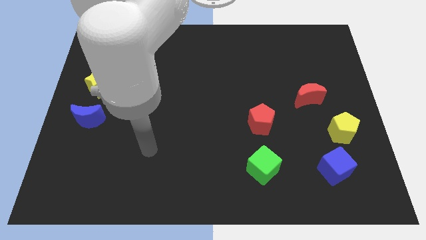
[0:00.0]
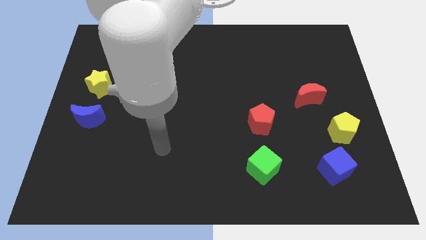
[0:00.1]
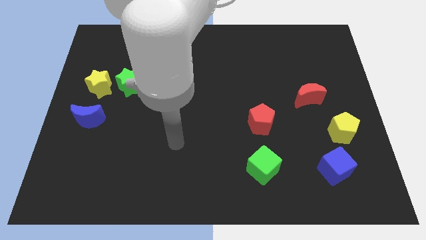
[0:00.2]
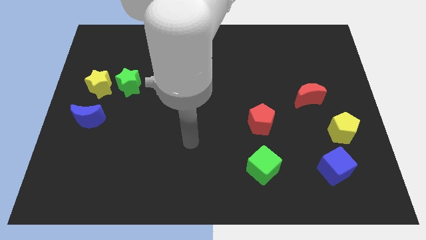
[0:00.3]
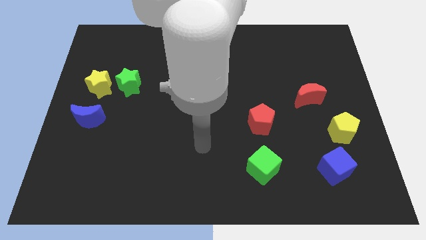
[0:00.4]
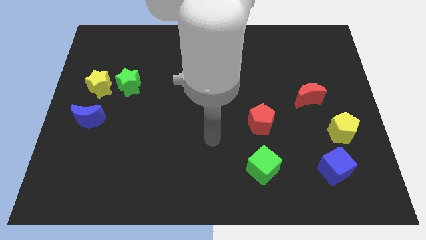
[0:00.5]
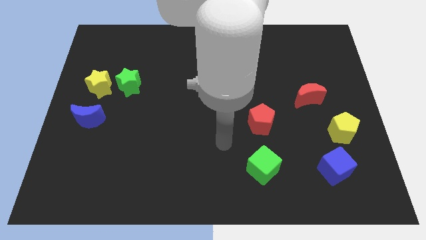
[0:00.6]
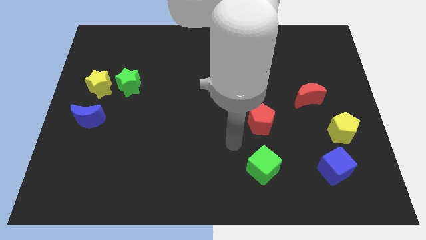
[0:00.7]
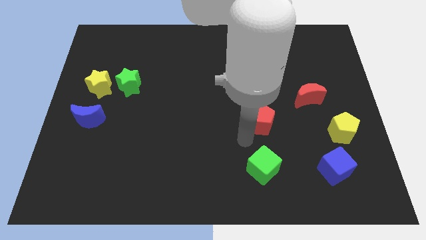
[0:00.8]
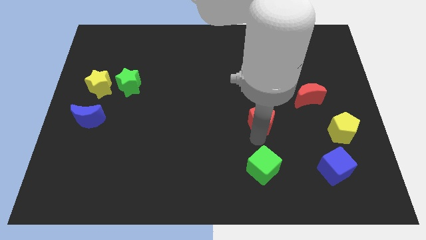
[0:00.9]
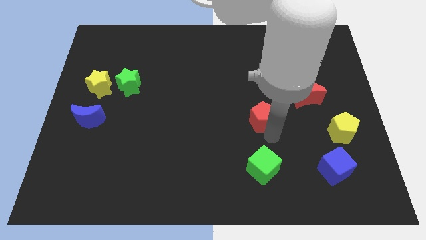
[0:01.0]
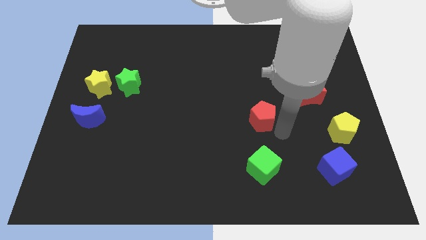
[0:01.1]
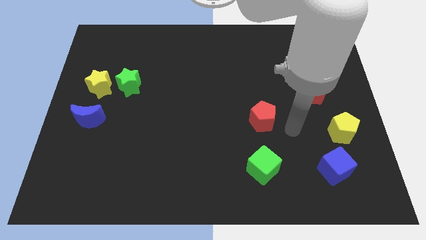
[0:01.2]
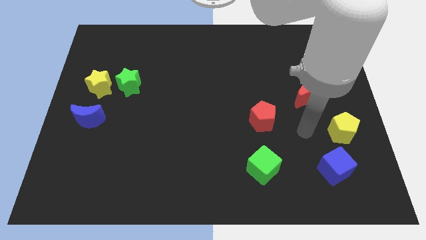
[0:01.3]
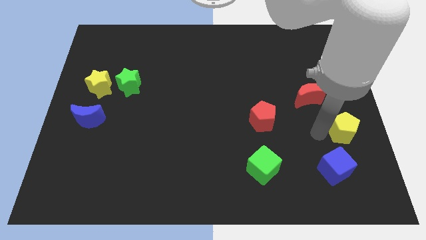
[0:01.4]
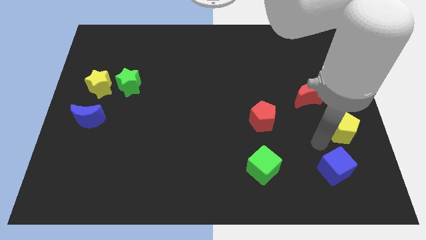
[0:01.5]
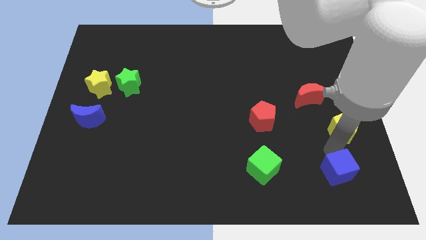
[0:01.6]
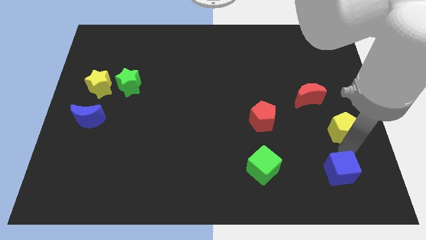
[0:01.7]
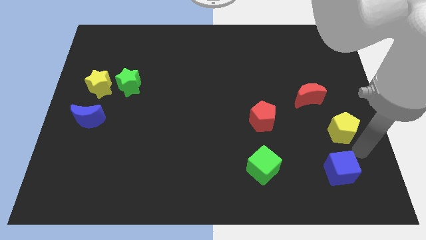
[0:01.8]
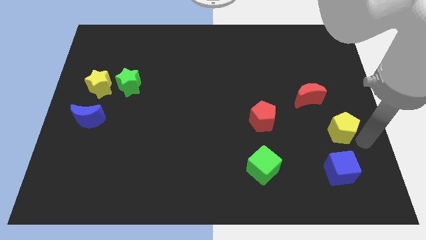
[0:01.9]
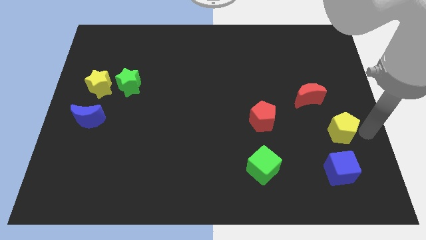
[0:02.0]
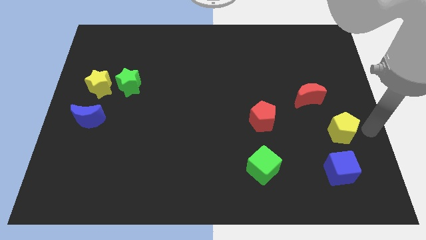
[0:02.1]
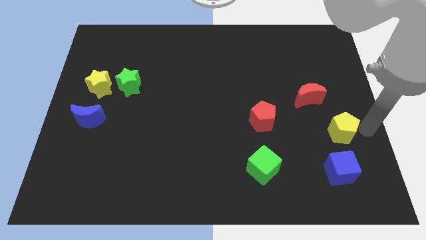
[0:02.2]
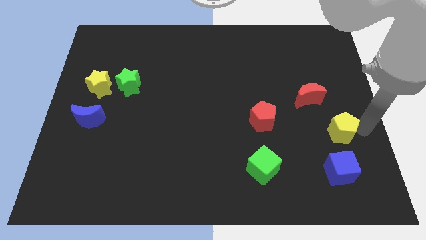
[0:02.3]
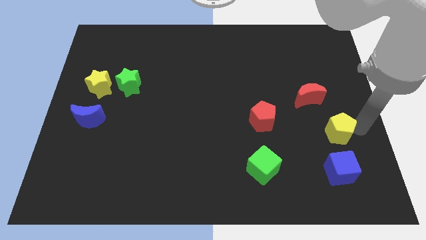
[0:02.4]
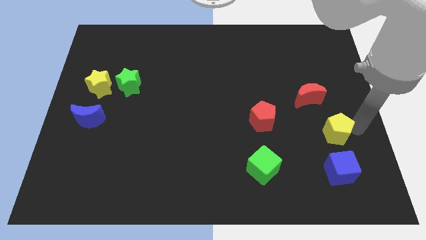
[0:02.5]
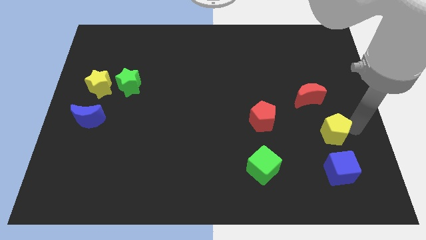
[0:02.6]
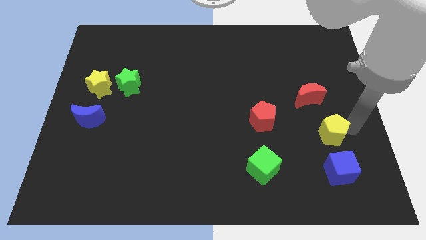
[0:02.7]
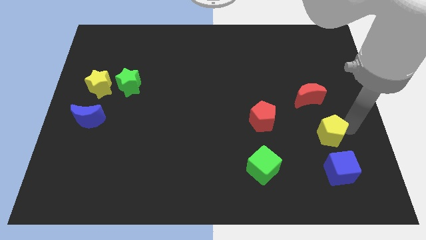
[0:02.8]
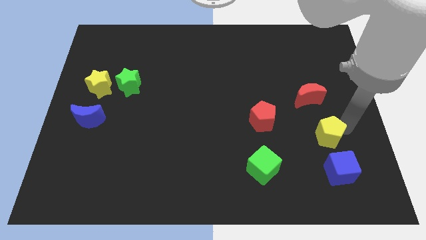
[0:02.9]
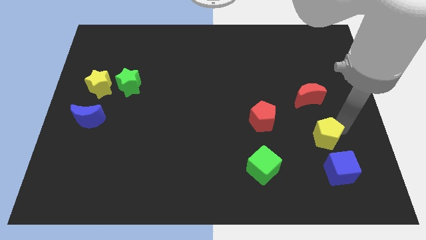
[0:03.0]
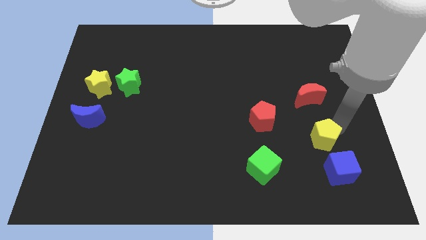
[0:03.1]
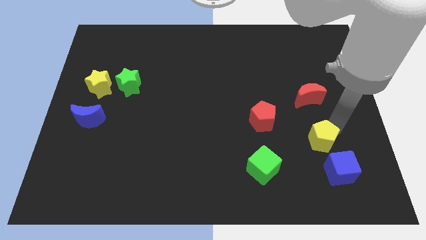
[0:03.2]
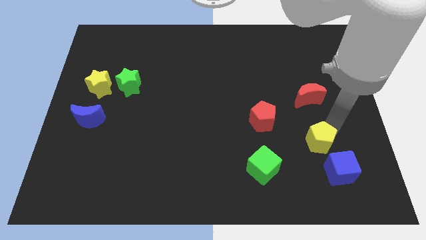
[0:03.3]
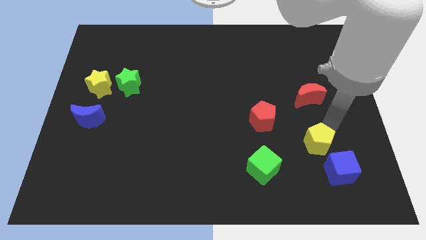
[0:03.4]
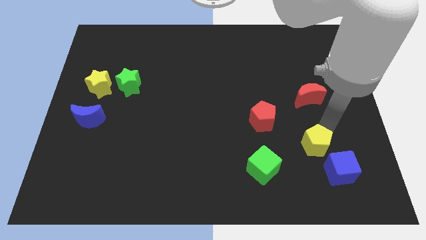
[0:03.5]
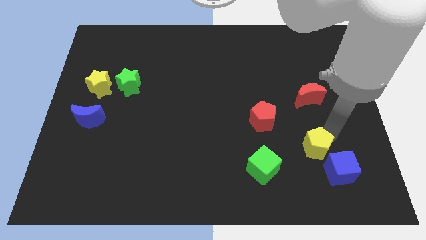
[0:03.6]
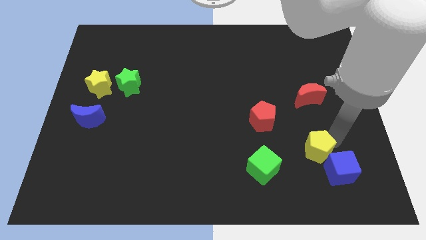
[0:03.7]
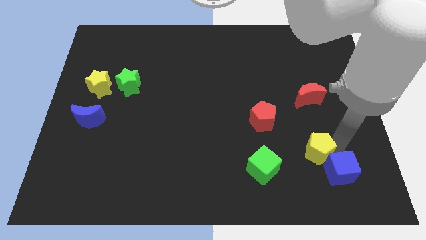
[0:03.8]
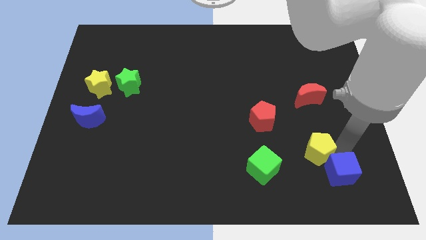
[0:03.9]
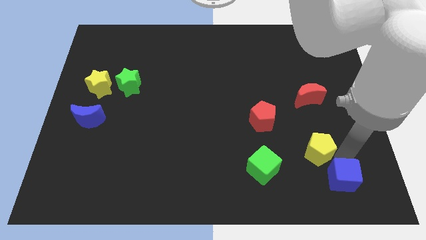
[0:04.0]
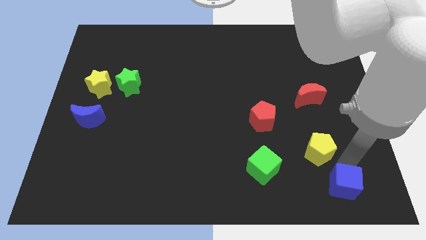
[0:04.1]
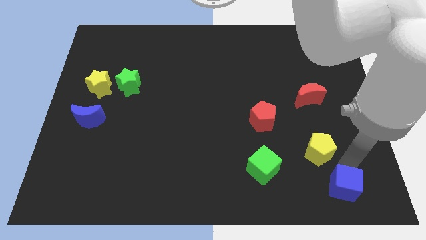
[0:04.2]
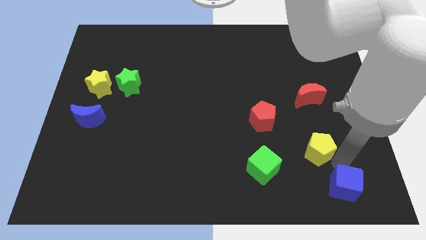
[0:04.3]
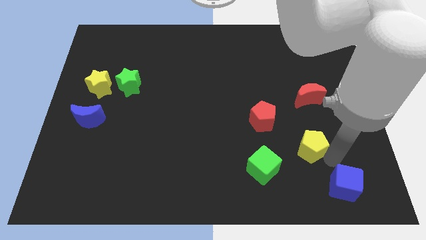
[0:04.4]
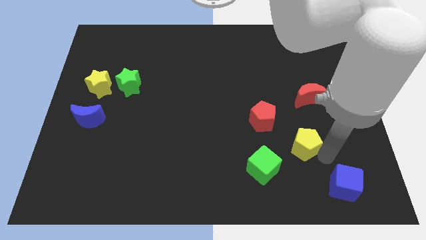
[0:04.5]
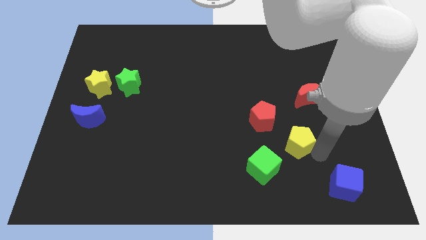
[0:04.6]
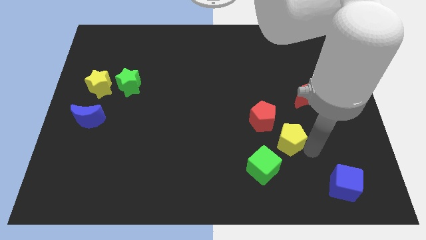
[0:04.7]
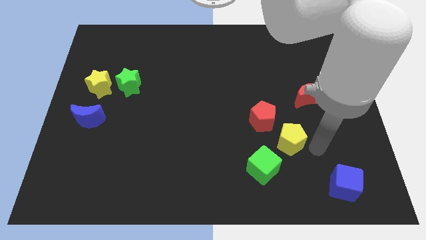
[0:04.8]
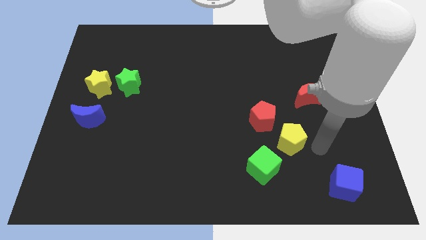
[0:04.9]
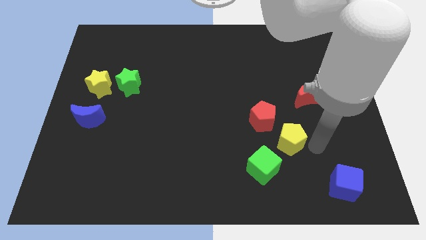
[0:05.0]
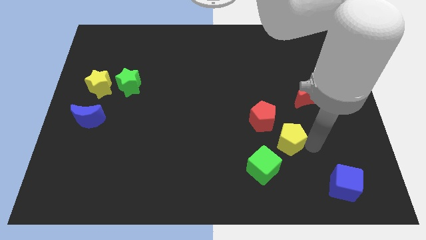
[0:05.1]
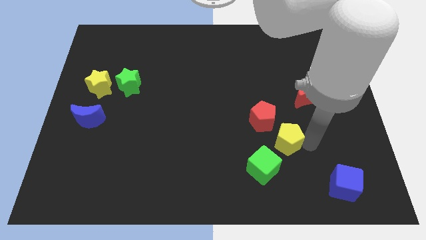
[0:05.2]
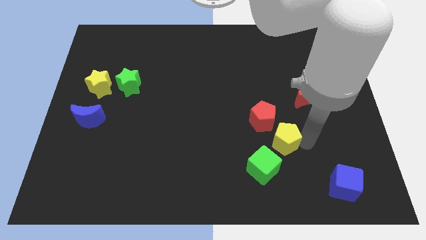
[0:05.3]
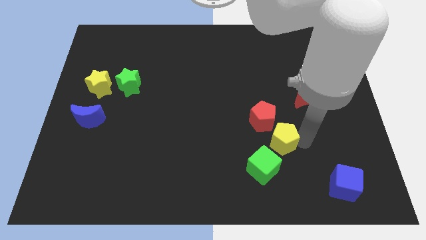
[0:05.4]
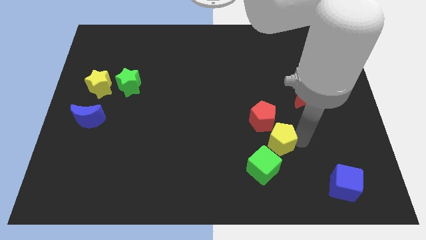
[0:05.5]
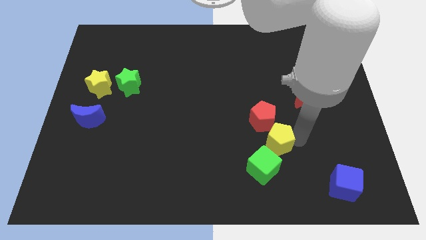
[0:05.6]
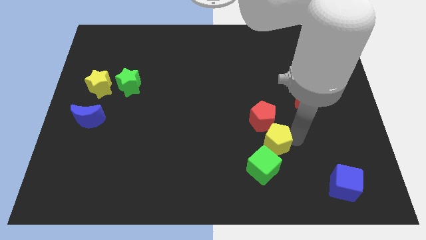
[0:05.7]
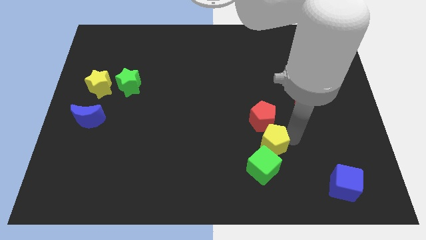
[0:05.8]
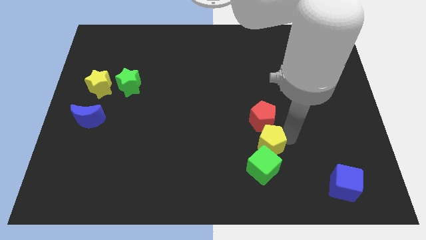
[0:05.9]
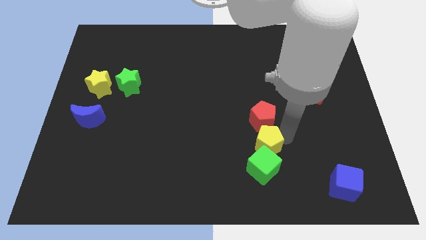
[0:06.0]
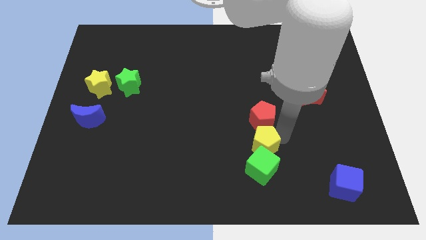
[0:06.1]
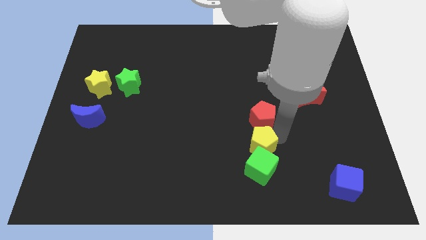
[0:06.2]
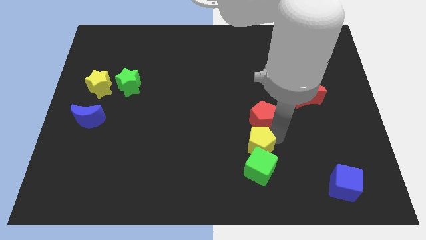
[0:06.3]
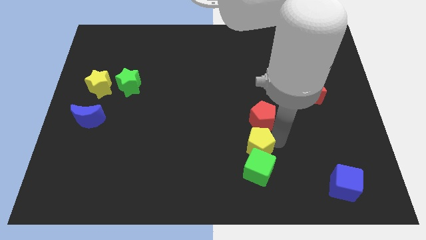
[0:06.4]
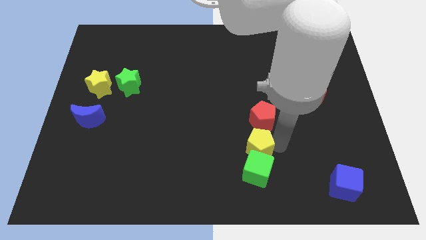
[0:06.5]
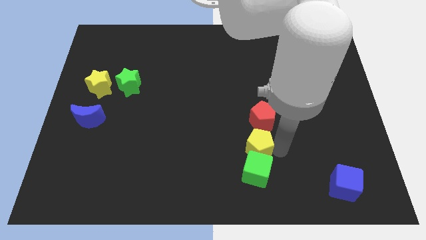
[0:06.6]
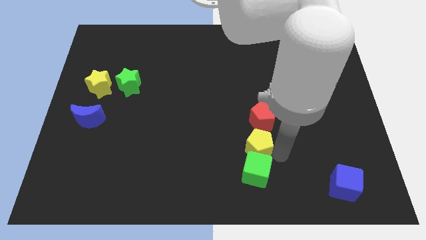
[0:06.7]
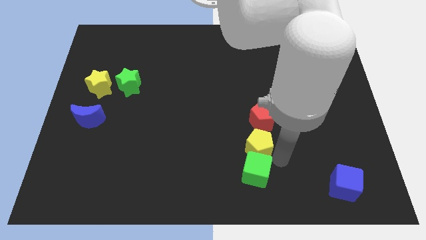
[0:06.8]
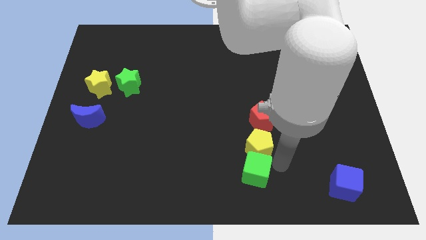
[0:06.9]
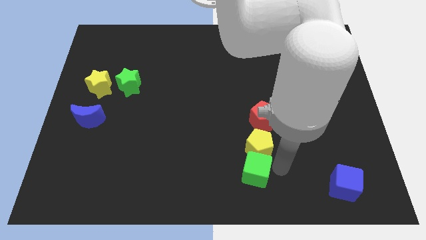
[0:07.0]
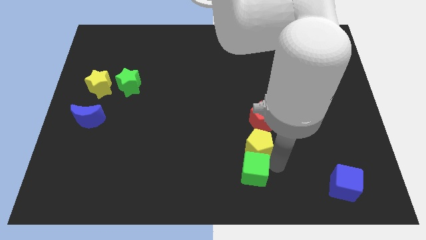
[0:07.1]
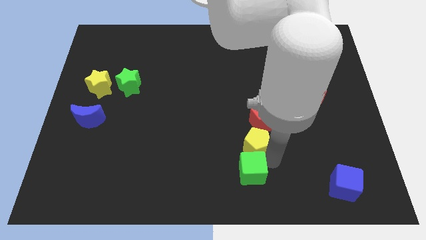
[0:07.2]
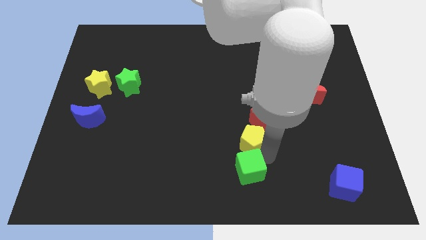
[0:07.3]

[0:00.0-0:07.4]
push the yellow pentagon left

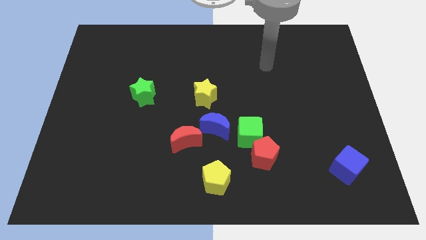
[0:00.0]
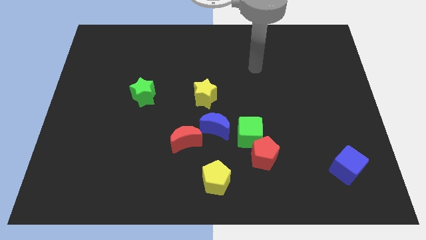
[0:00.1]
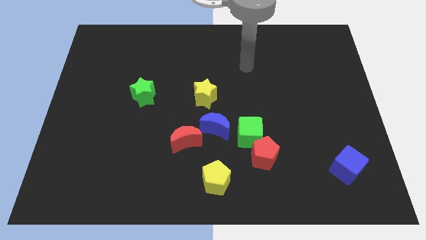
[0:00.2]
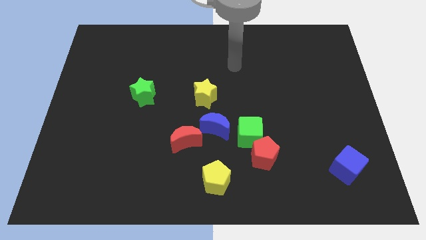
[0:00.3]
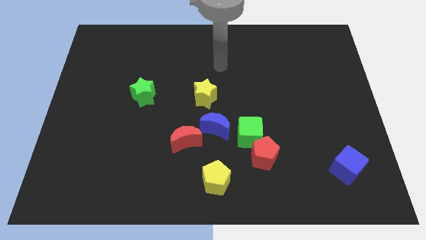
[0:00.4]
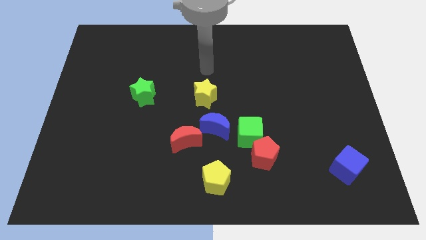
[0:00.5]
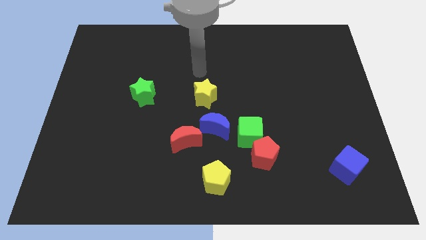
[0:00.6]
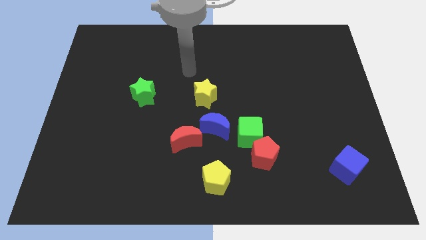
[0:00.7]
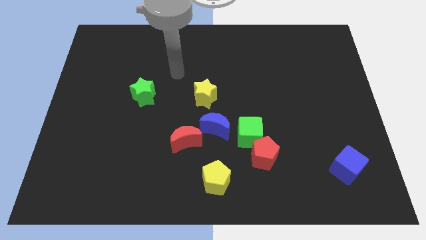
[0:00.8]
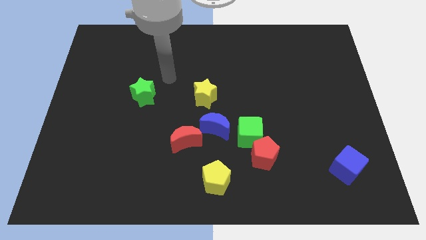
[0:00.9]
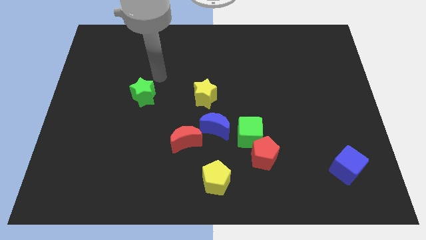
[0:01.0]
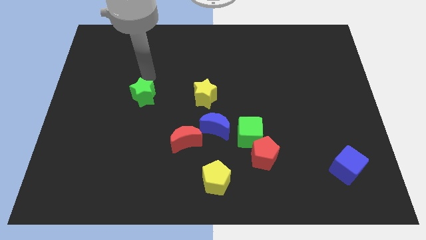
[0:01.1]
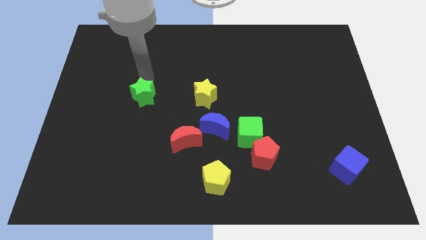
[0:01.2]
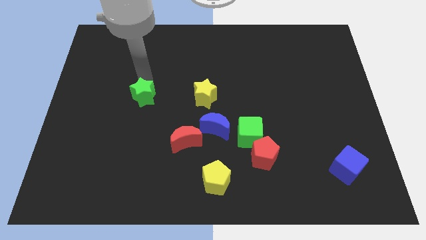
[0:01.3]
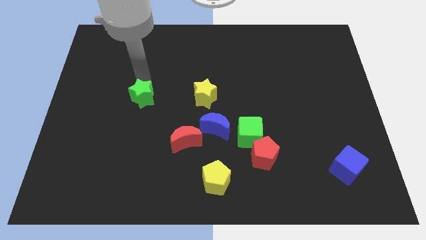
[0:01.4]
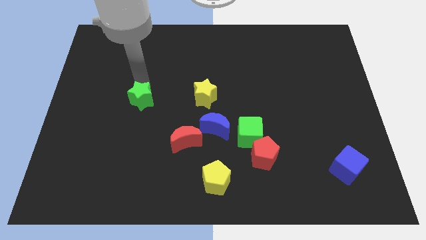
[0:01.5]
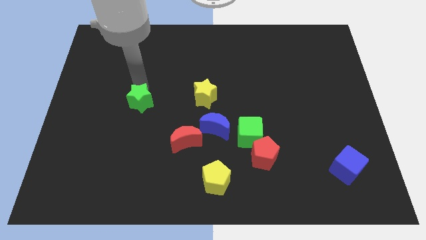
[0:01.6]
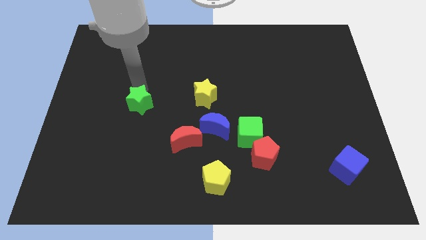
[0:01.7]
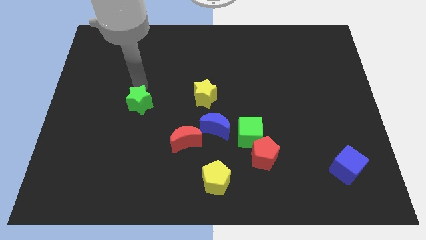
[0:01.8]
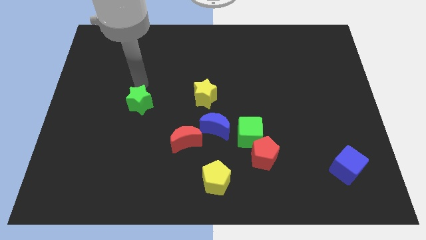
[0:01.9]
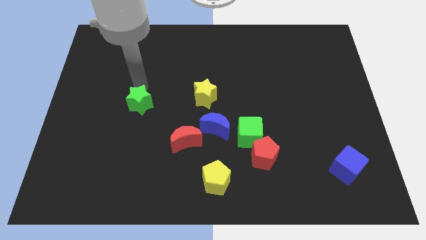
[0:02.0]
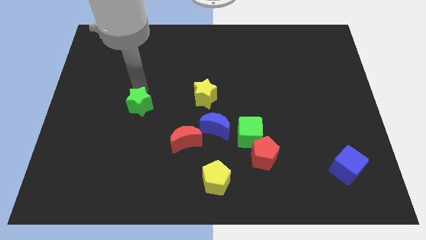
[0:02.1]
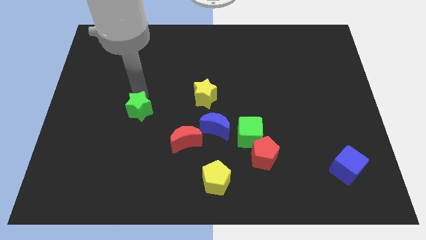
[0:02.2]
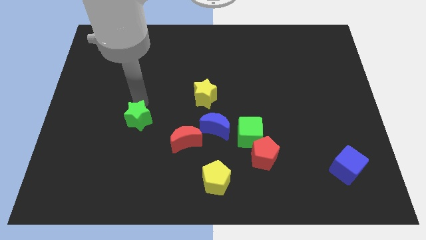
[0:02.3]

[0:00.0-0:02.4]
push the green star a bit downwards
